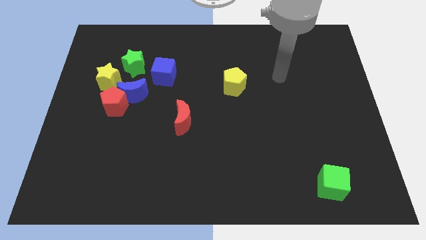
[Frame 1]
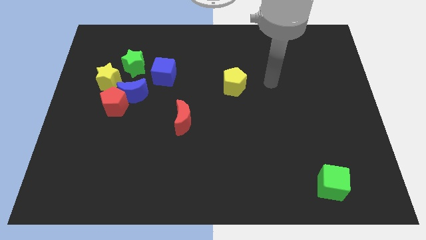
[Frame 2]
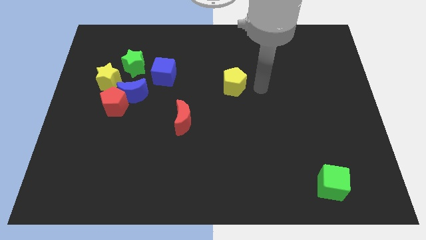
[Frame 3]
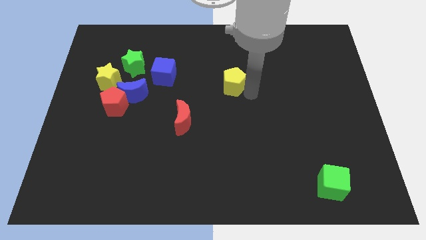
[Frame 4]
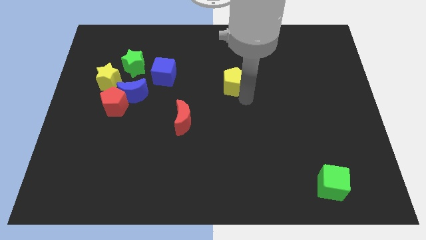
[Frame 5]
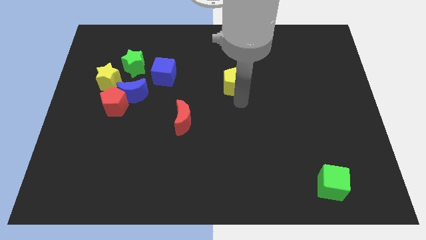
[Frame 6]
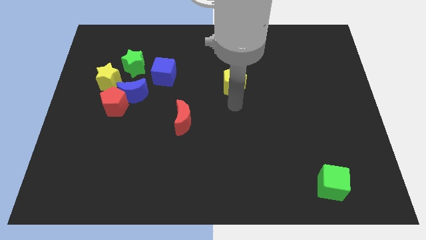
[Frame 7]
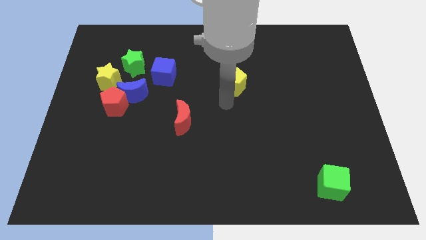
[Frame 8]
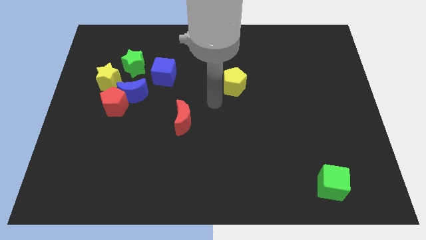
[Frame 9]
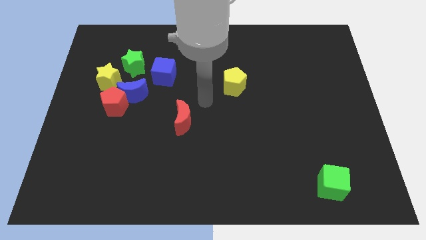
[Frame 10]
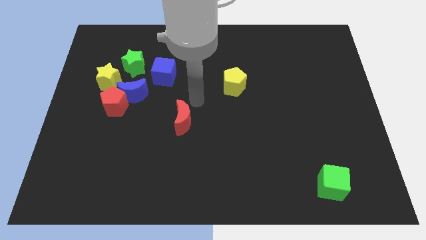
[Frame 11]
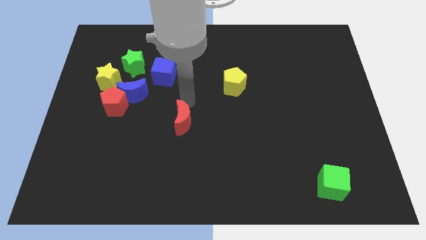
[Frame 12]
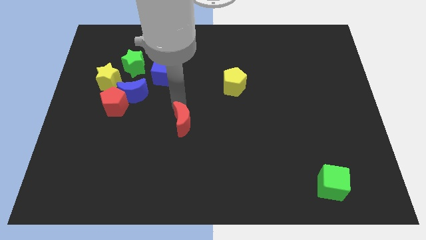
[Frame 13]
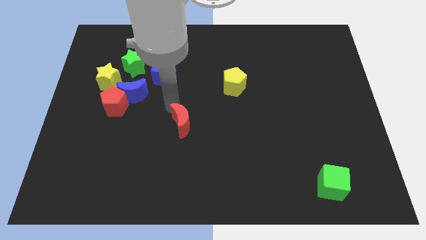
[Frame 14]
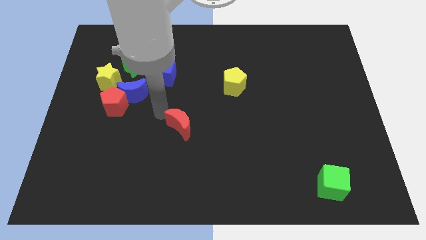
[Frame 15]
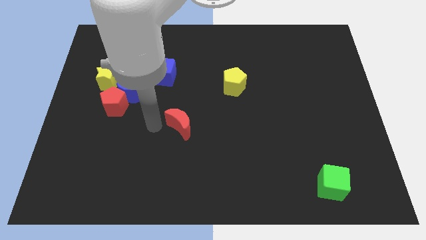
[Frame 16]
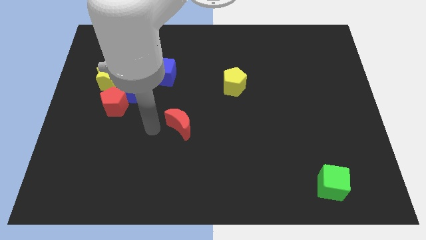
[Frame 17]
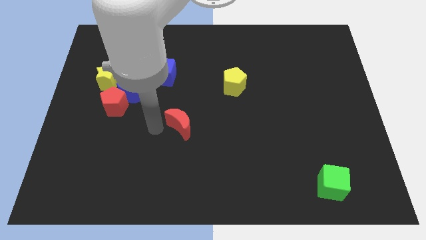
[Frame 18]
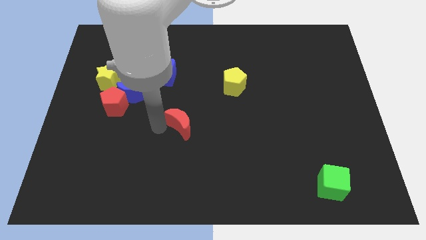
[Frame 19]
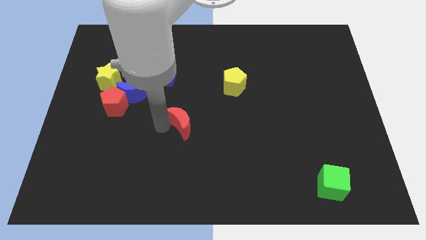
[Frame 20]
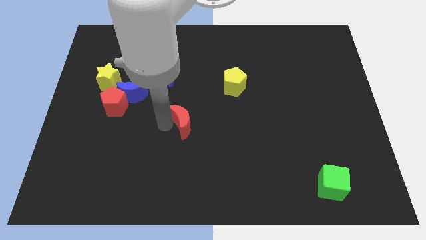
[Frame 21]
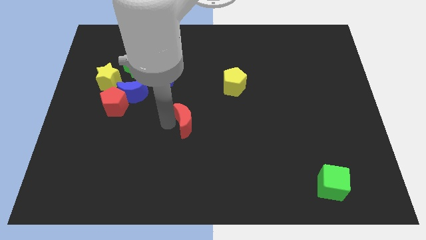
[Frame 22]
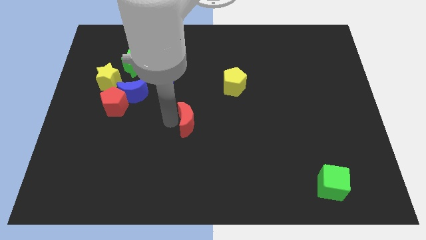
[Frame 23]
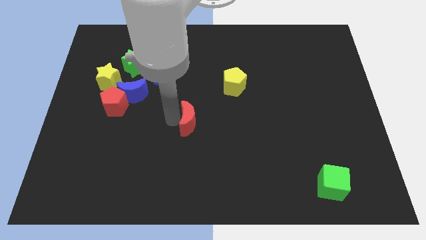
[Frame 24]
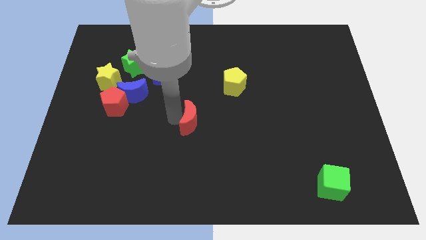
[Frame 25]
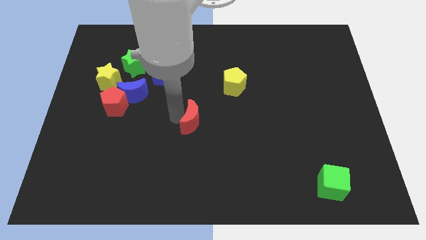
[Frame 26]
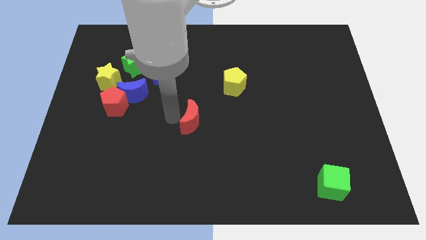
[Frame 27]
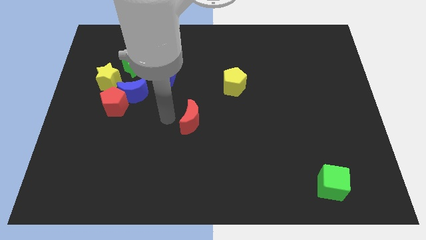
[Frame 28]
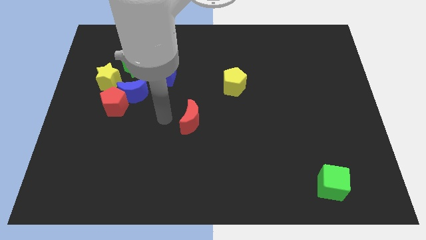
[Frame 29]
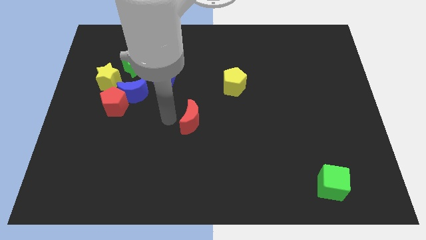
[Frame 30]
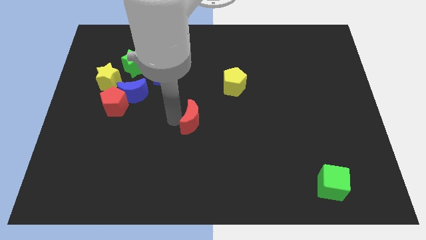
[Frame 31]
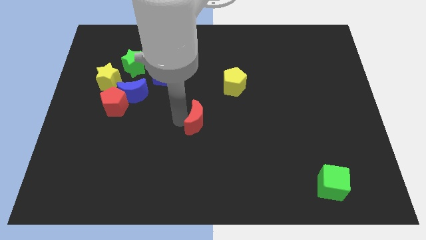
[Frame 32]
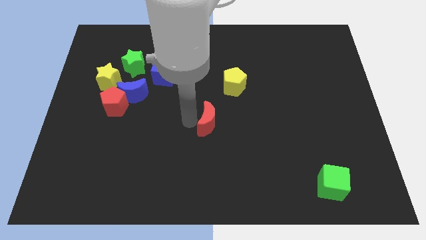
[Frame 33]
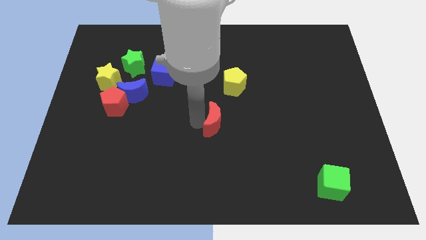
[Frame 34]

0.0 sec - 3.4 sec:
slide the red moon slightly right

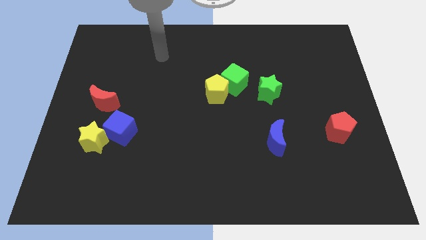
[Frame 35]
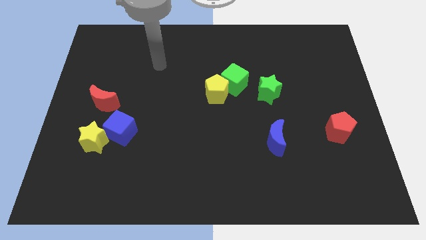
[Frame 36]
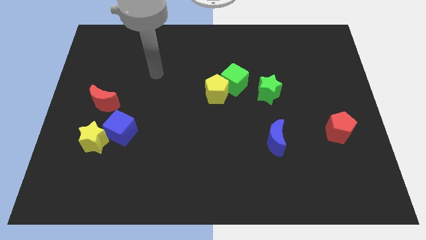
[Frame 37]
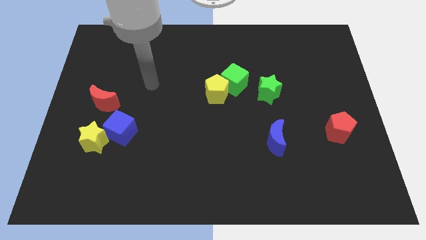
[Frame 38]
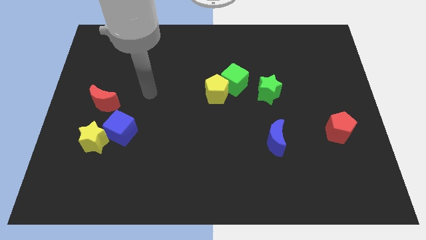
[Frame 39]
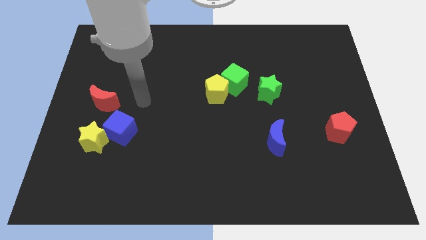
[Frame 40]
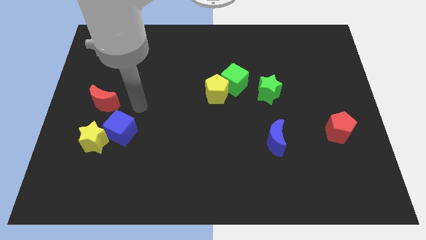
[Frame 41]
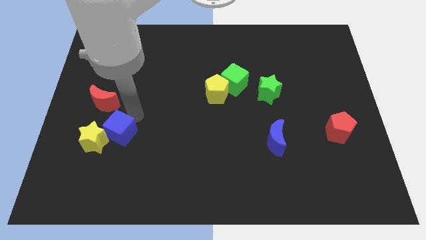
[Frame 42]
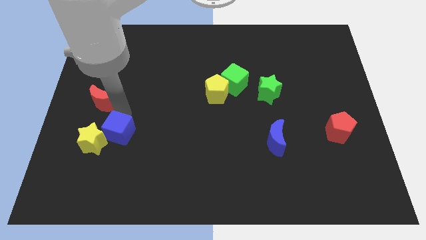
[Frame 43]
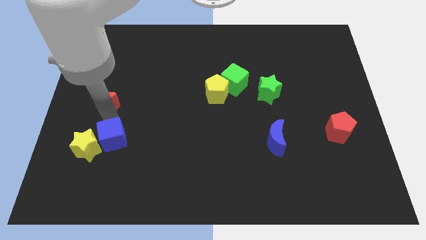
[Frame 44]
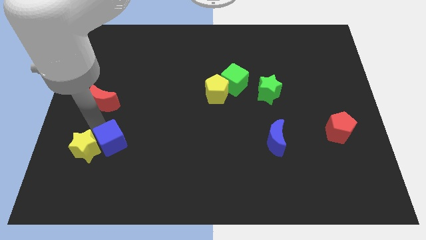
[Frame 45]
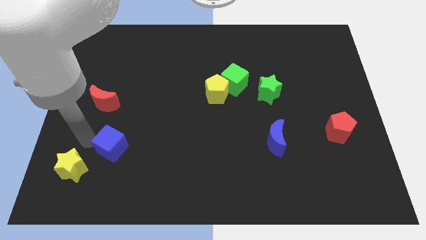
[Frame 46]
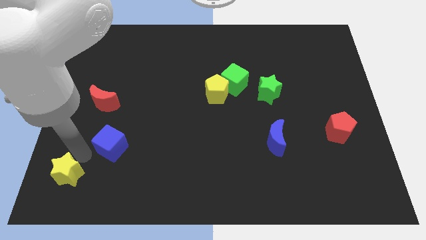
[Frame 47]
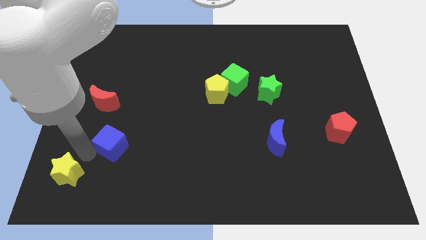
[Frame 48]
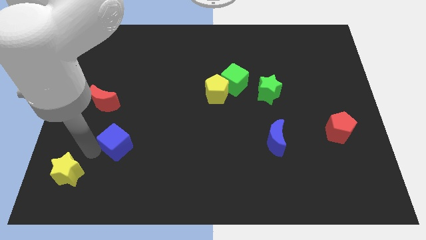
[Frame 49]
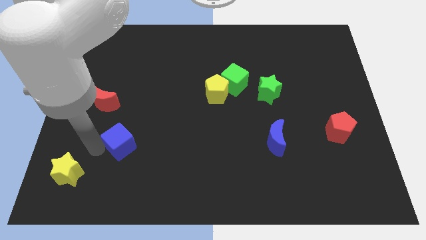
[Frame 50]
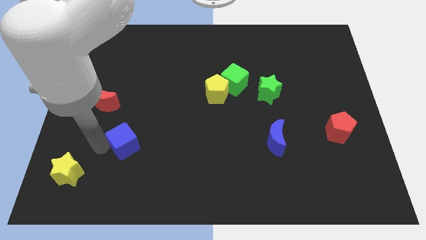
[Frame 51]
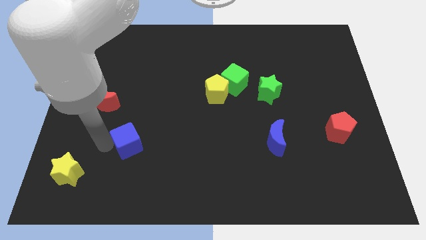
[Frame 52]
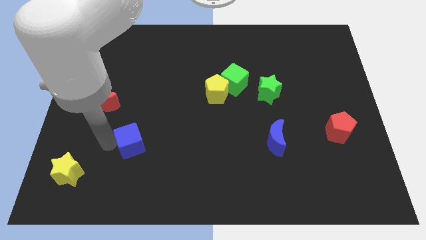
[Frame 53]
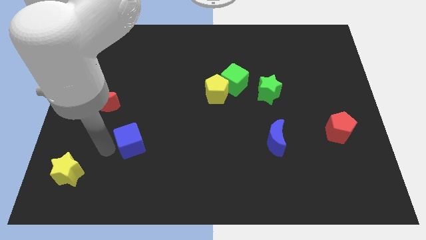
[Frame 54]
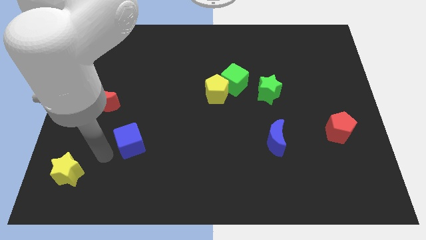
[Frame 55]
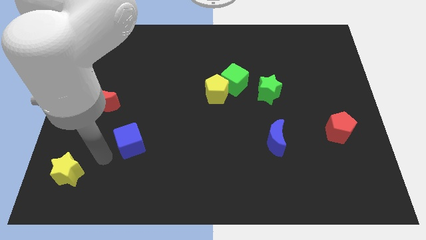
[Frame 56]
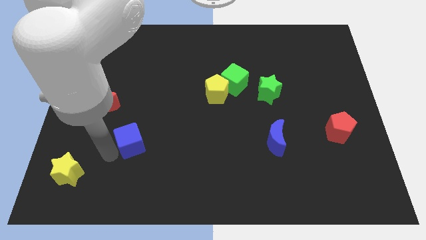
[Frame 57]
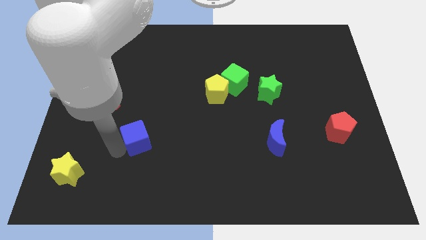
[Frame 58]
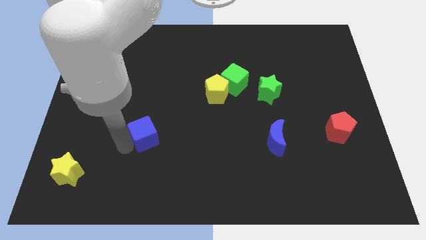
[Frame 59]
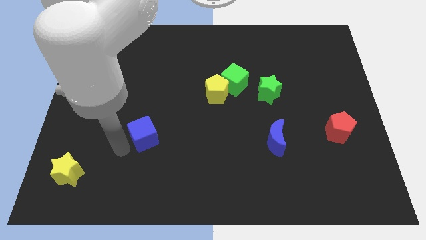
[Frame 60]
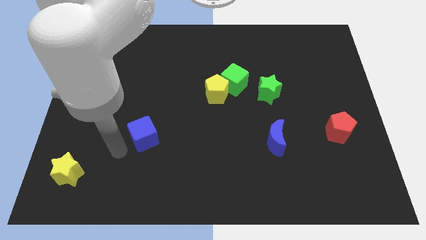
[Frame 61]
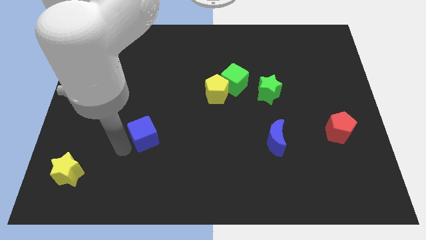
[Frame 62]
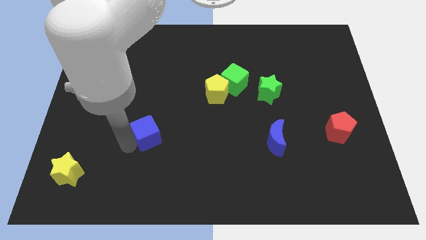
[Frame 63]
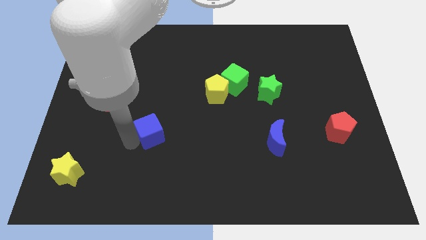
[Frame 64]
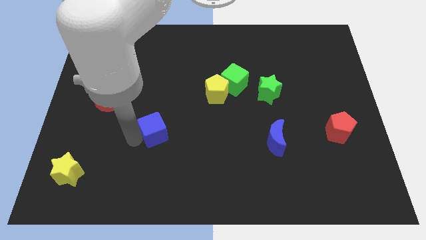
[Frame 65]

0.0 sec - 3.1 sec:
push the blue cube a little right

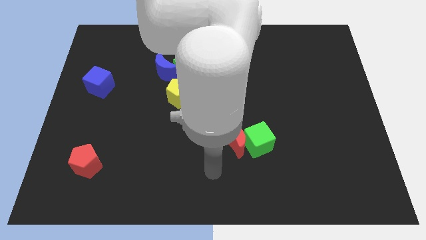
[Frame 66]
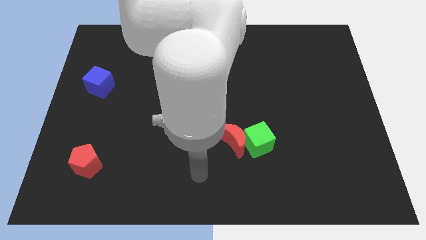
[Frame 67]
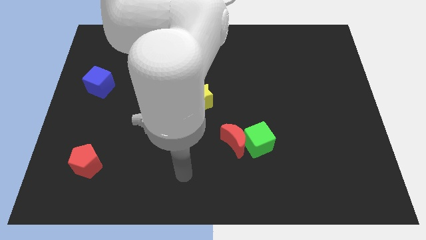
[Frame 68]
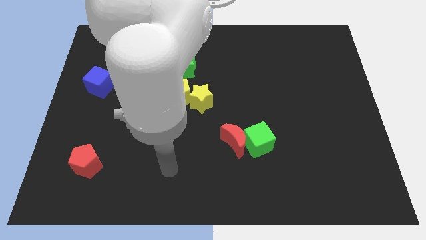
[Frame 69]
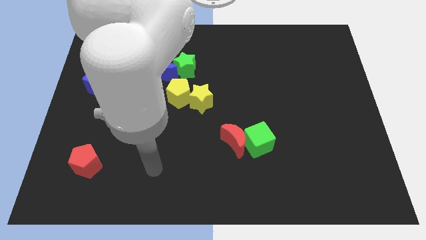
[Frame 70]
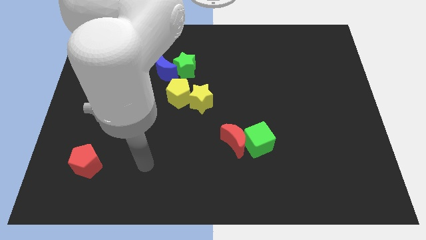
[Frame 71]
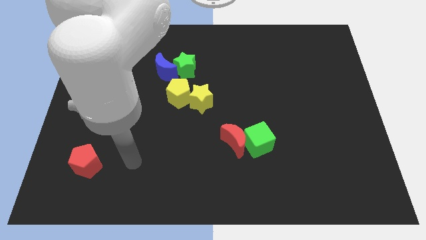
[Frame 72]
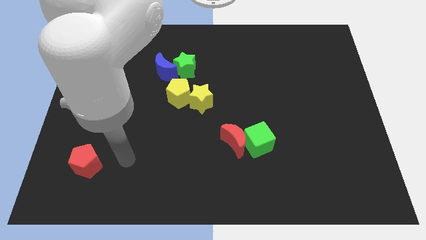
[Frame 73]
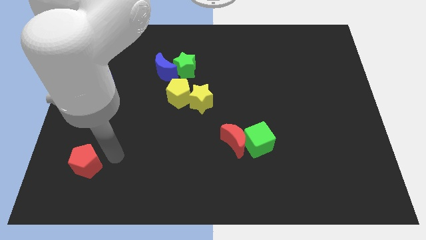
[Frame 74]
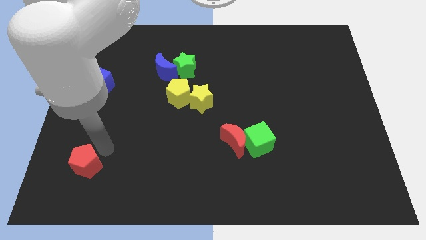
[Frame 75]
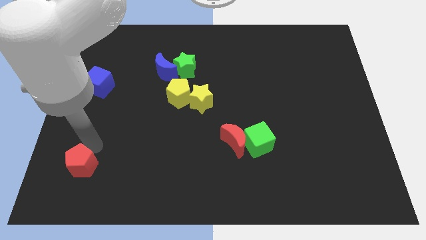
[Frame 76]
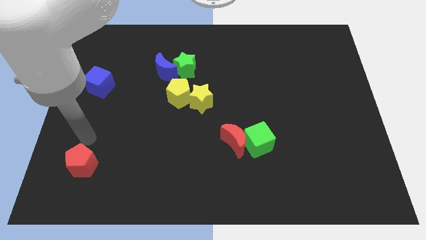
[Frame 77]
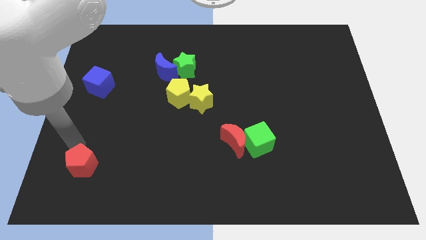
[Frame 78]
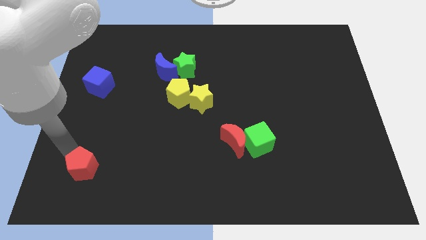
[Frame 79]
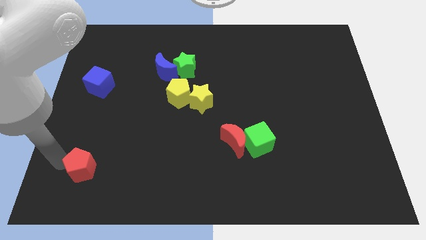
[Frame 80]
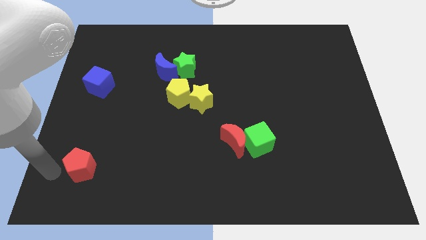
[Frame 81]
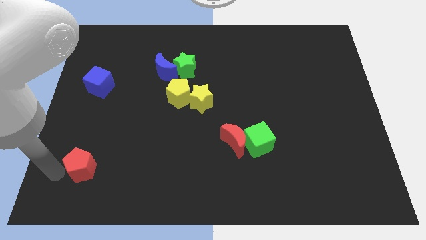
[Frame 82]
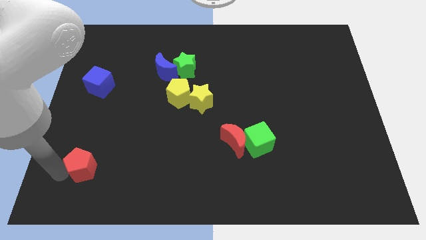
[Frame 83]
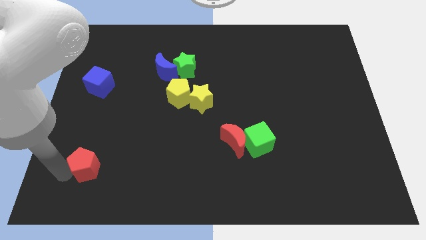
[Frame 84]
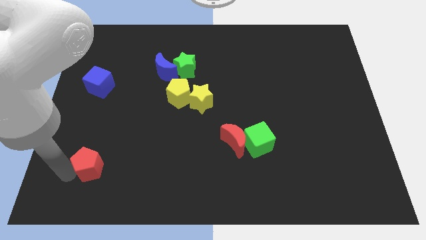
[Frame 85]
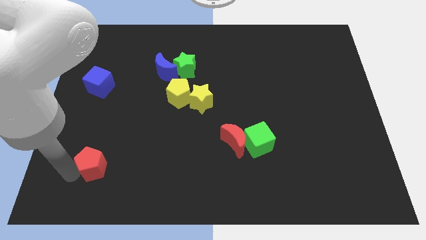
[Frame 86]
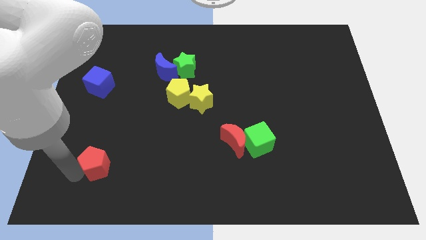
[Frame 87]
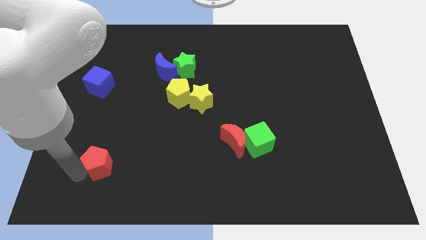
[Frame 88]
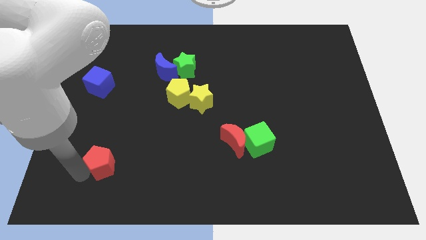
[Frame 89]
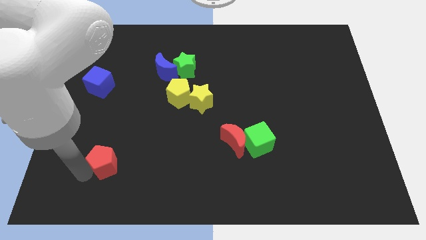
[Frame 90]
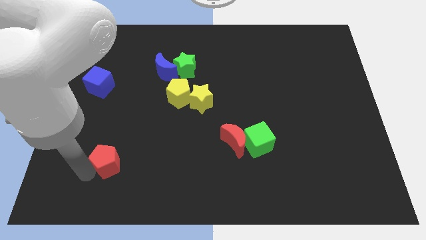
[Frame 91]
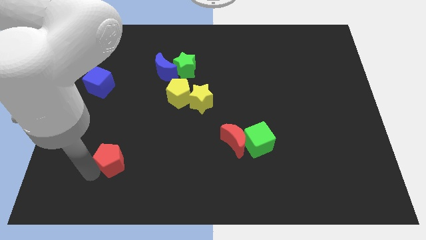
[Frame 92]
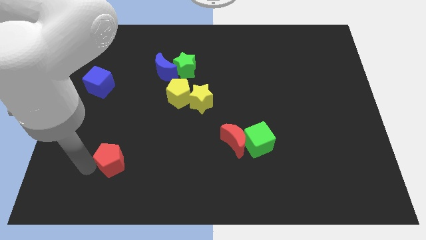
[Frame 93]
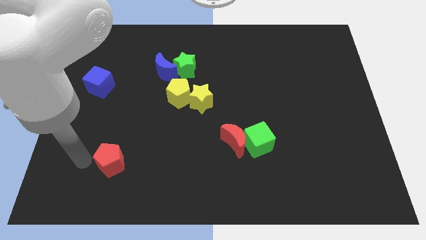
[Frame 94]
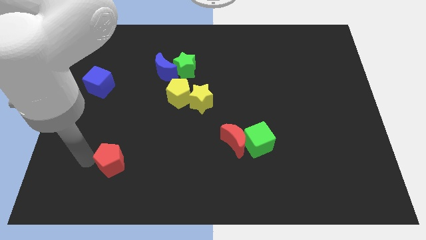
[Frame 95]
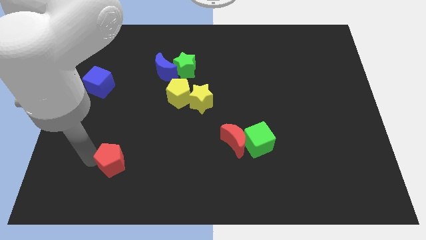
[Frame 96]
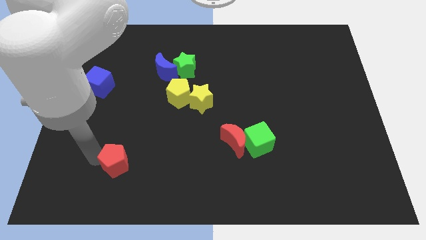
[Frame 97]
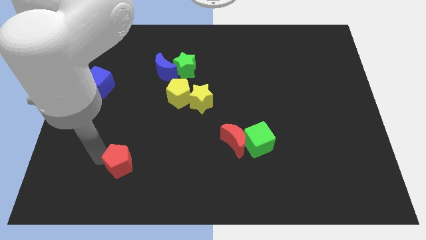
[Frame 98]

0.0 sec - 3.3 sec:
slide the red pentagon slightly right
